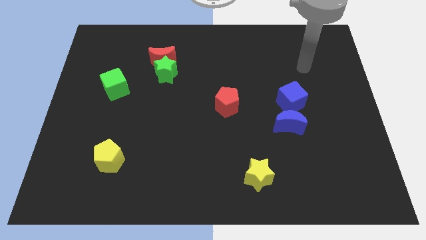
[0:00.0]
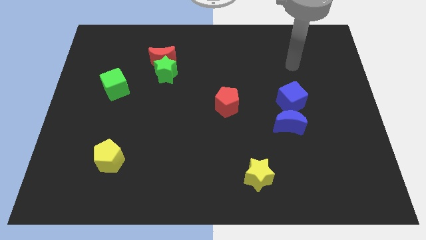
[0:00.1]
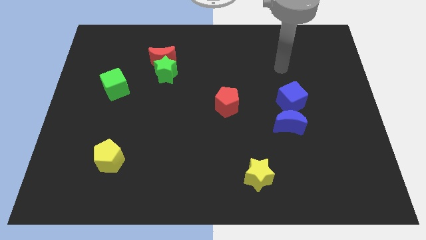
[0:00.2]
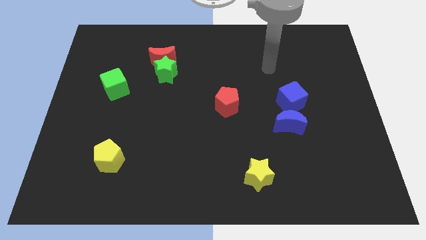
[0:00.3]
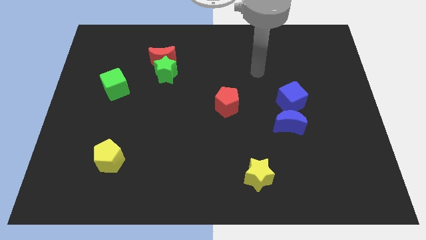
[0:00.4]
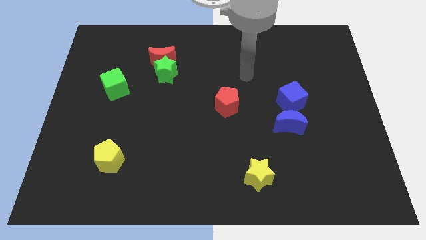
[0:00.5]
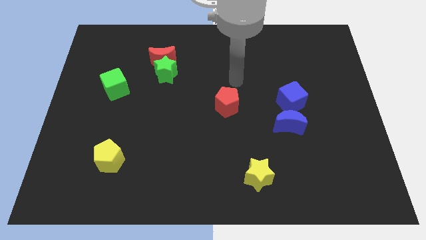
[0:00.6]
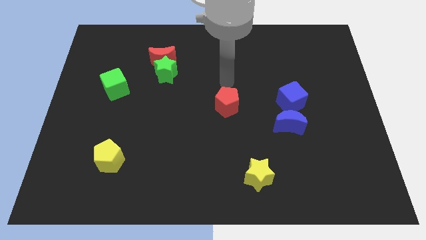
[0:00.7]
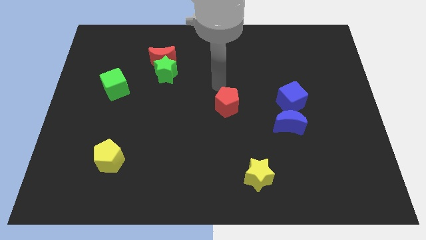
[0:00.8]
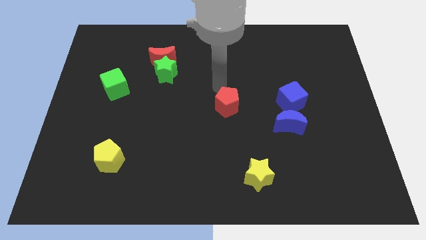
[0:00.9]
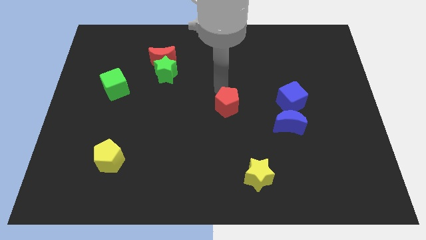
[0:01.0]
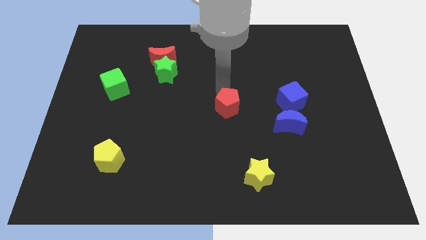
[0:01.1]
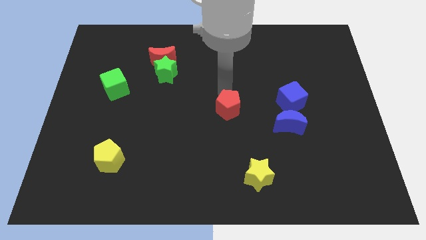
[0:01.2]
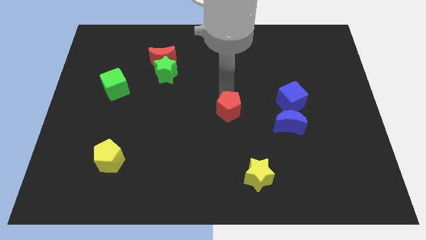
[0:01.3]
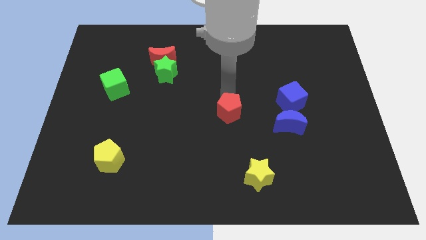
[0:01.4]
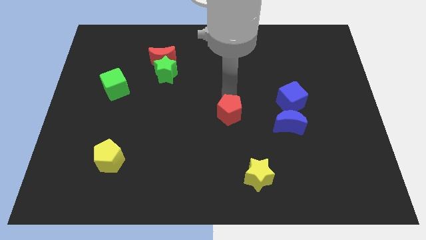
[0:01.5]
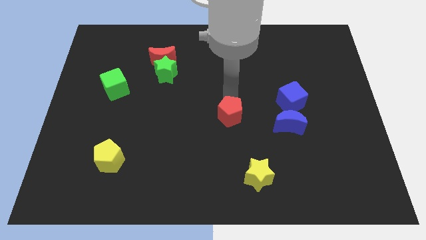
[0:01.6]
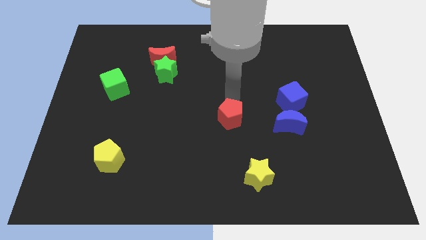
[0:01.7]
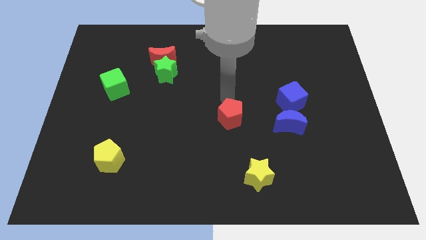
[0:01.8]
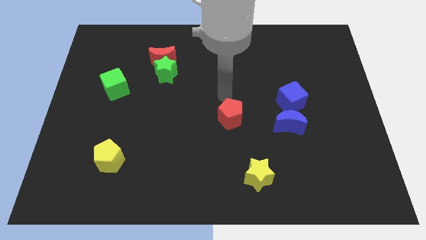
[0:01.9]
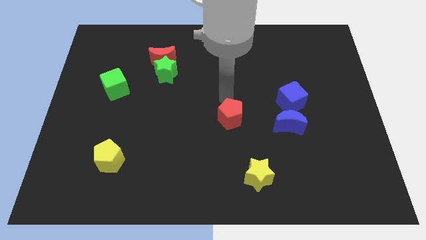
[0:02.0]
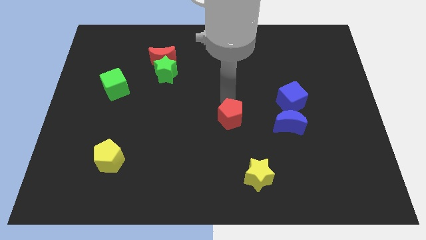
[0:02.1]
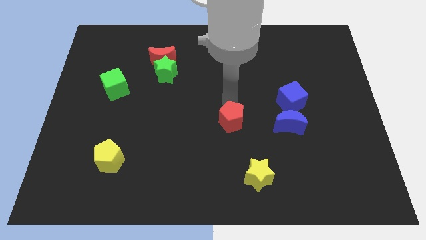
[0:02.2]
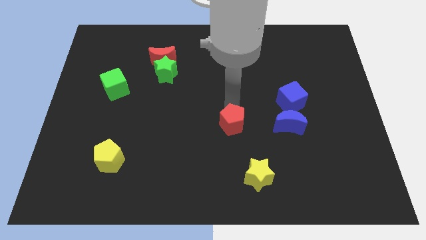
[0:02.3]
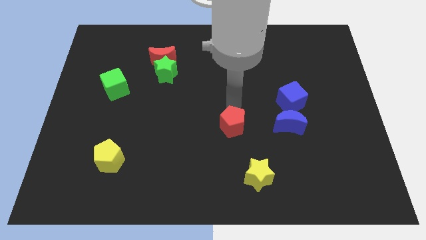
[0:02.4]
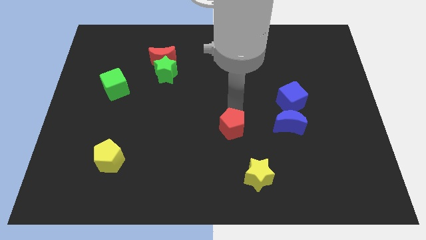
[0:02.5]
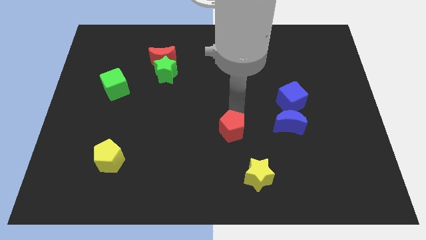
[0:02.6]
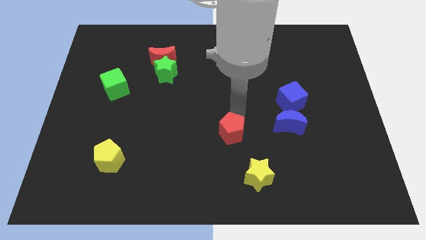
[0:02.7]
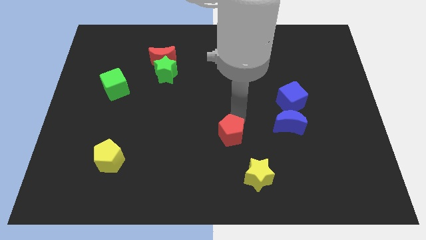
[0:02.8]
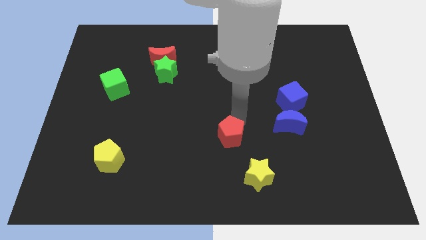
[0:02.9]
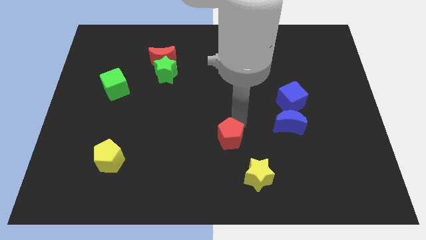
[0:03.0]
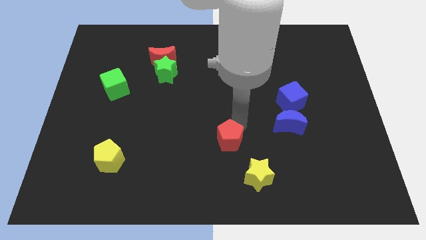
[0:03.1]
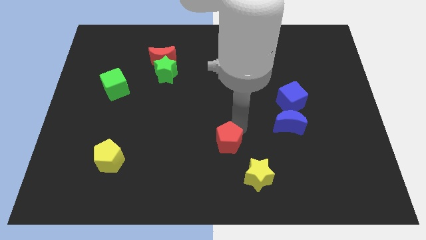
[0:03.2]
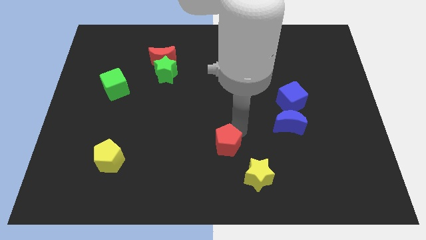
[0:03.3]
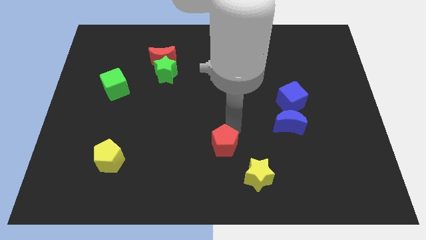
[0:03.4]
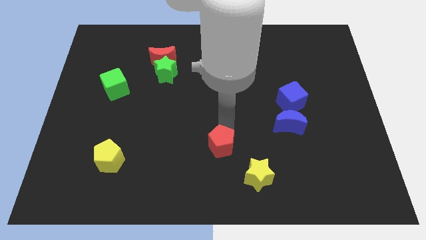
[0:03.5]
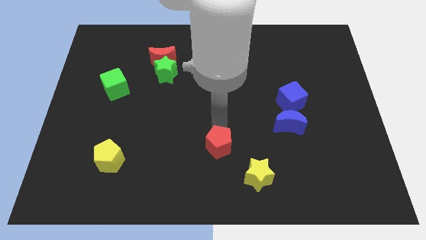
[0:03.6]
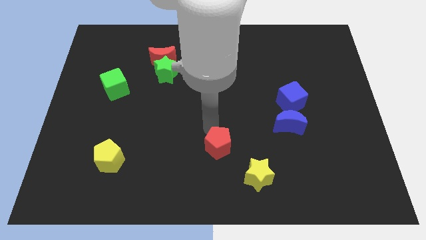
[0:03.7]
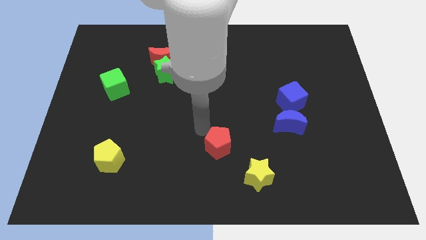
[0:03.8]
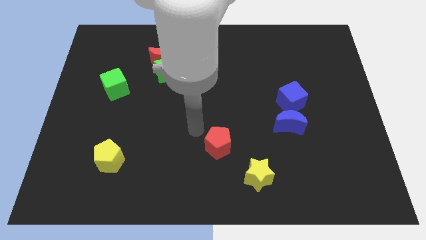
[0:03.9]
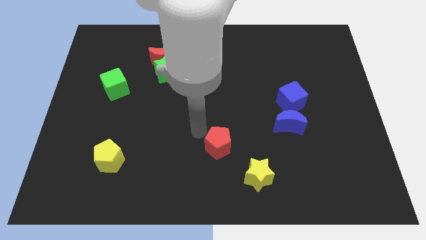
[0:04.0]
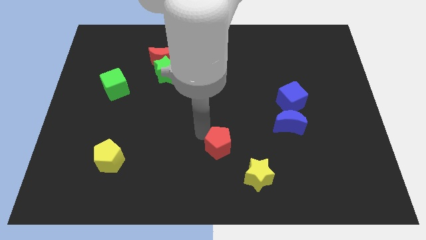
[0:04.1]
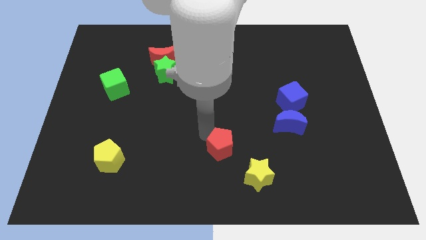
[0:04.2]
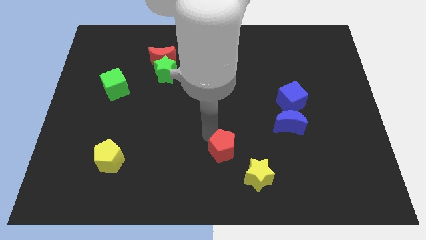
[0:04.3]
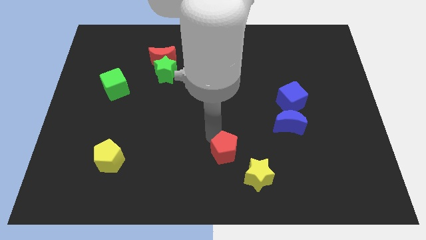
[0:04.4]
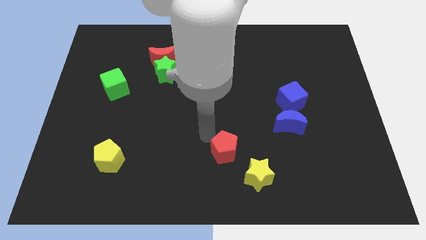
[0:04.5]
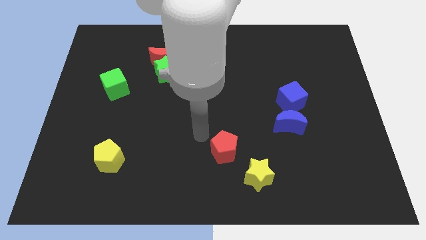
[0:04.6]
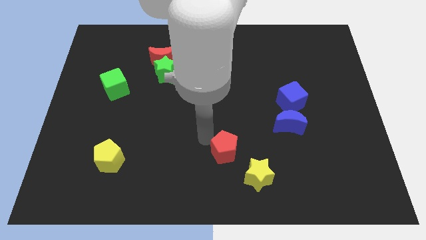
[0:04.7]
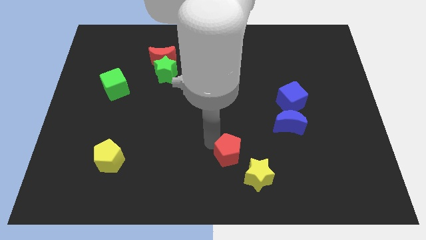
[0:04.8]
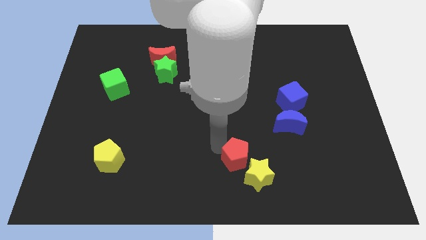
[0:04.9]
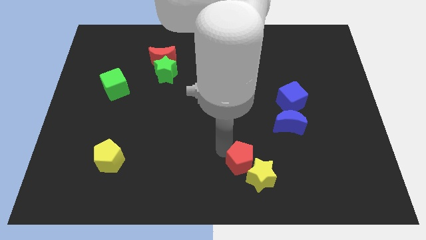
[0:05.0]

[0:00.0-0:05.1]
put the red pentagon towards the yellow star

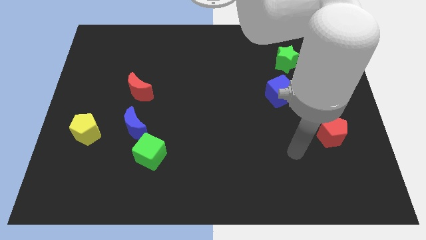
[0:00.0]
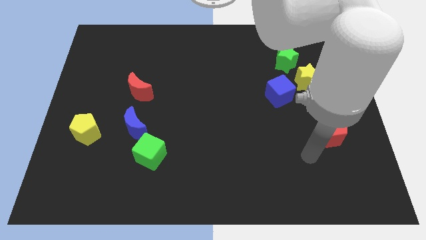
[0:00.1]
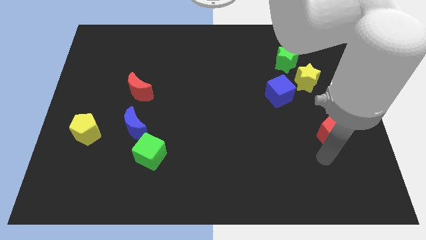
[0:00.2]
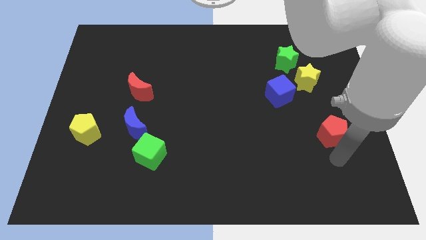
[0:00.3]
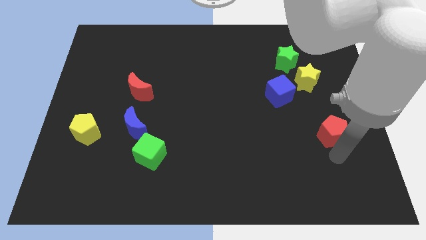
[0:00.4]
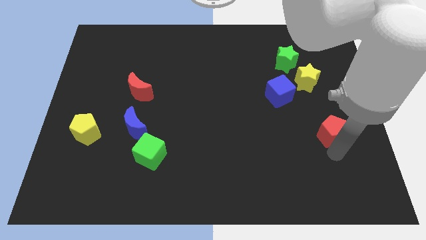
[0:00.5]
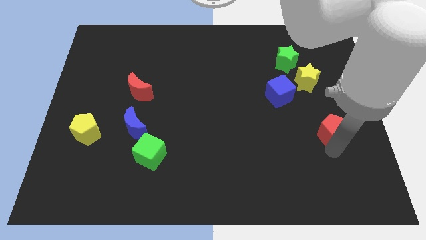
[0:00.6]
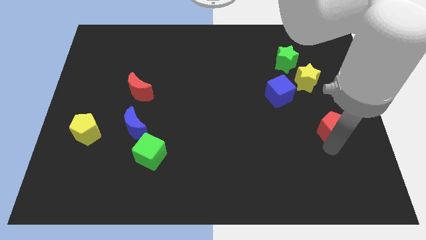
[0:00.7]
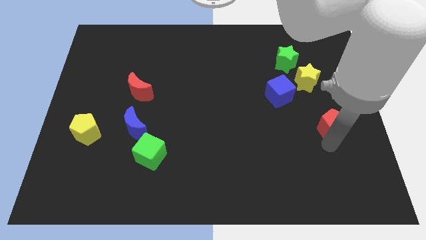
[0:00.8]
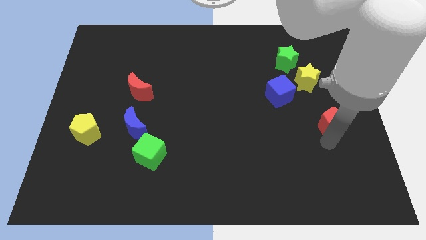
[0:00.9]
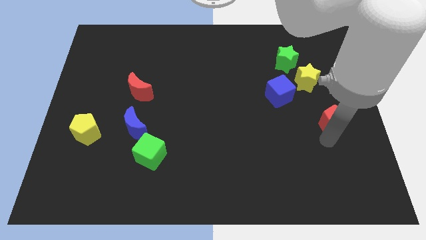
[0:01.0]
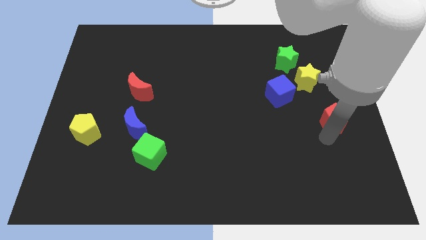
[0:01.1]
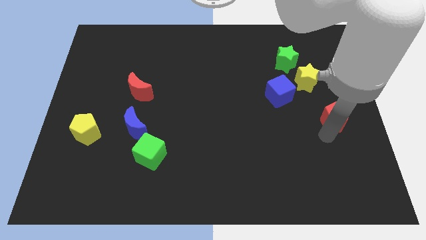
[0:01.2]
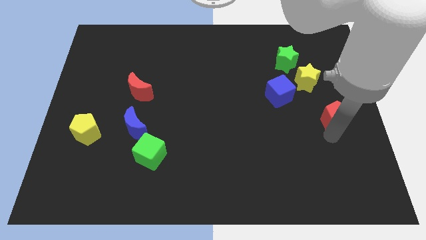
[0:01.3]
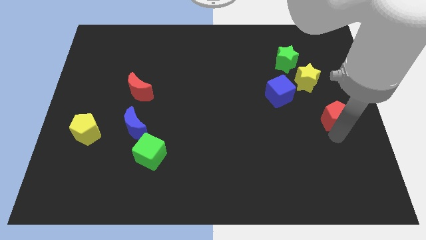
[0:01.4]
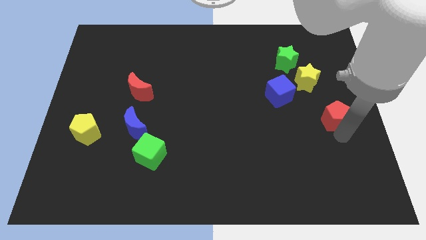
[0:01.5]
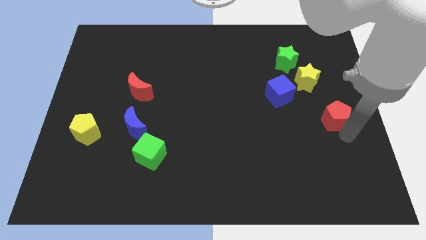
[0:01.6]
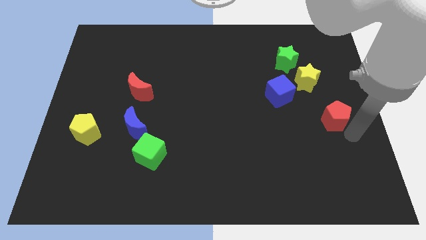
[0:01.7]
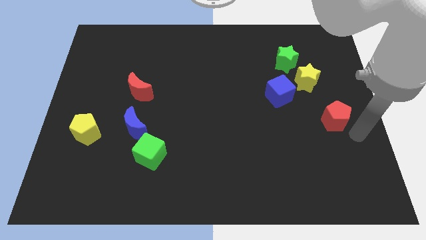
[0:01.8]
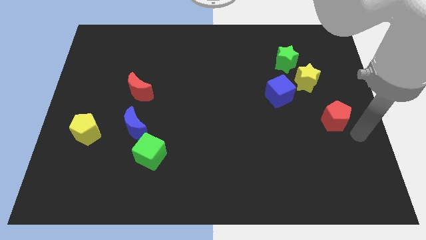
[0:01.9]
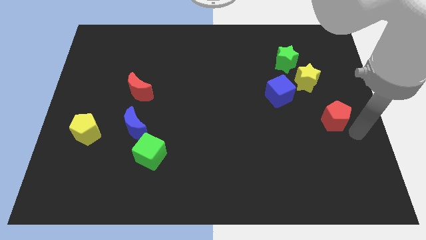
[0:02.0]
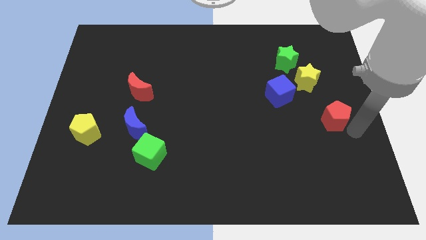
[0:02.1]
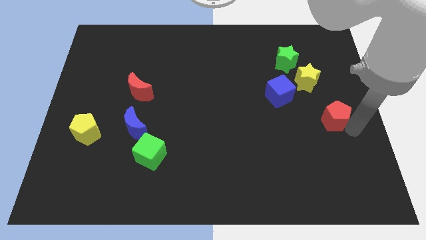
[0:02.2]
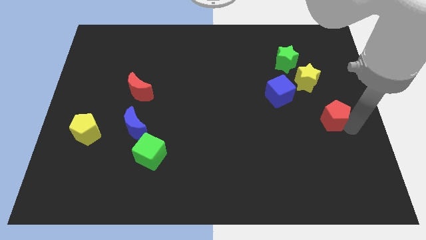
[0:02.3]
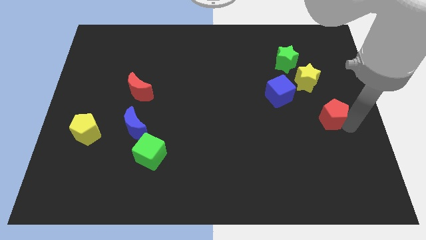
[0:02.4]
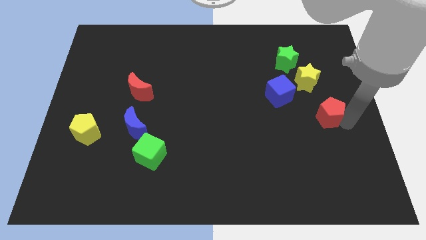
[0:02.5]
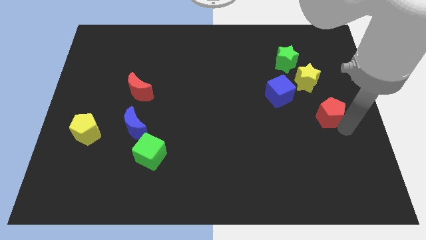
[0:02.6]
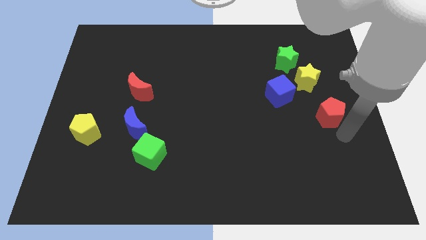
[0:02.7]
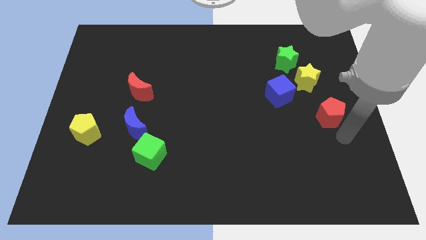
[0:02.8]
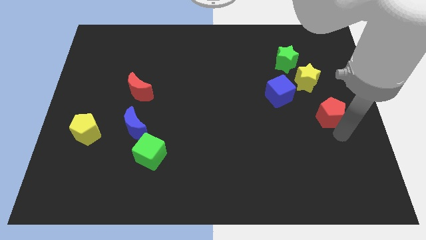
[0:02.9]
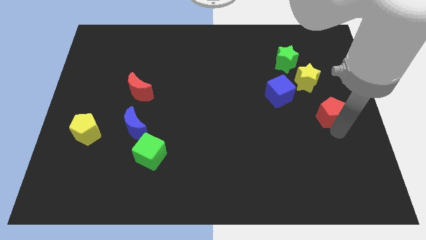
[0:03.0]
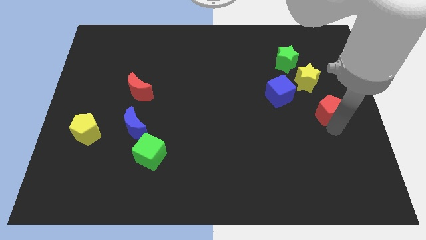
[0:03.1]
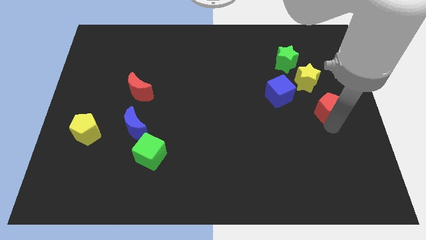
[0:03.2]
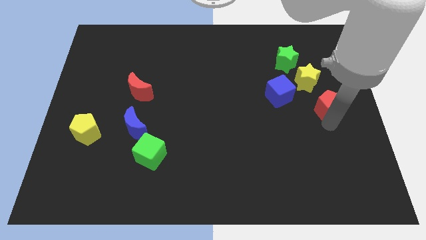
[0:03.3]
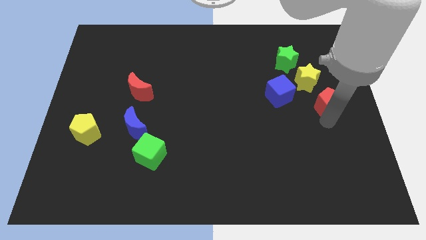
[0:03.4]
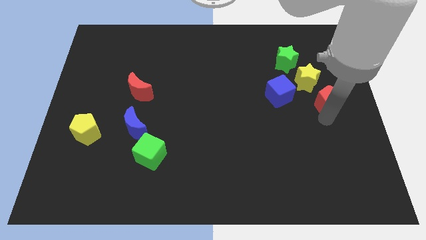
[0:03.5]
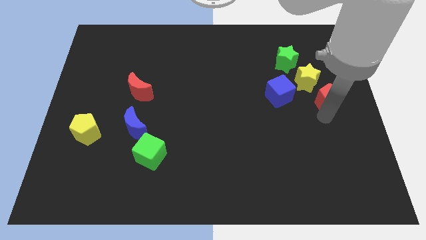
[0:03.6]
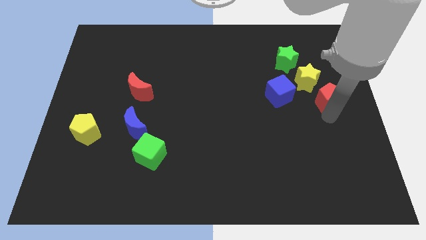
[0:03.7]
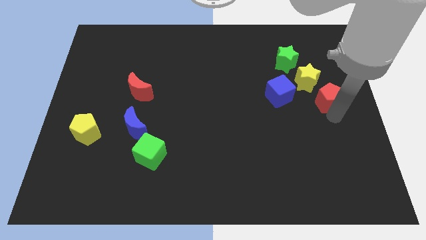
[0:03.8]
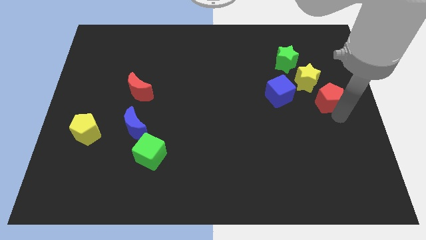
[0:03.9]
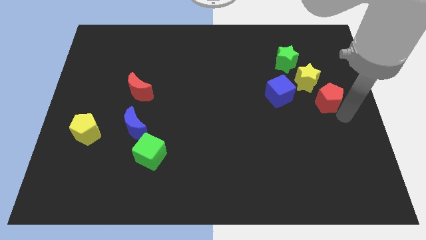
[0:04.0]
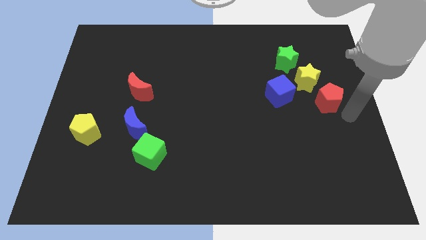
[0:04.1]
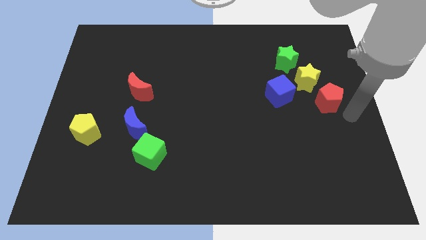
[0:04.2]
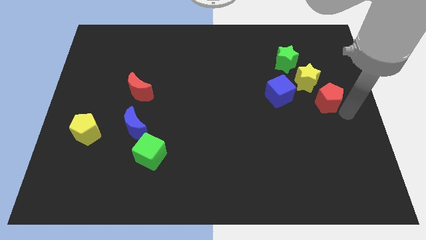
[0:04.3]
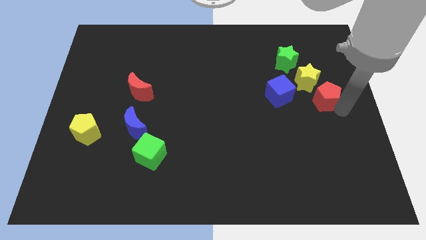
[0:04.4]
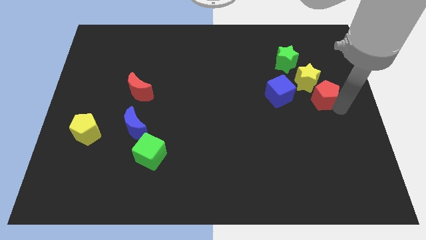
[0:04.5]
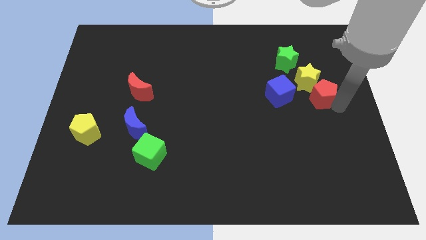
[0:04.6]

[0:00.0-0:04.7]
slide the red pentagon towards the yellow star
